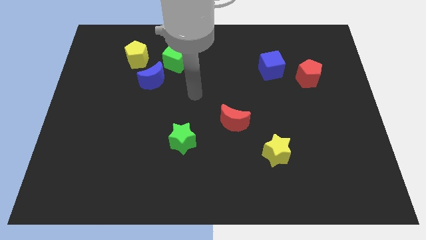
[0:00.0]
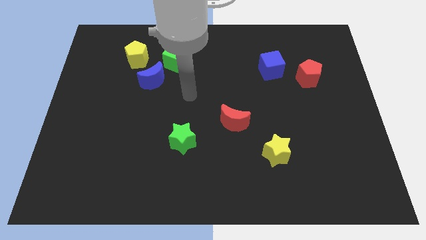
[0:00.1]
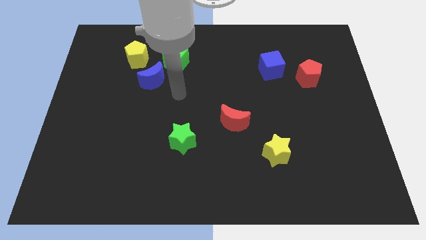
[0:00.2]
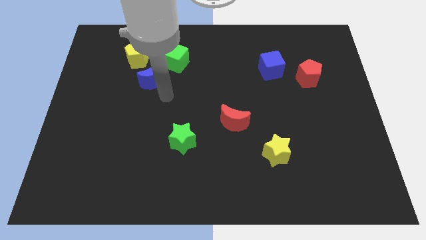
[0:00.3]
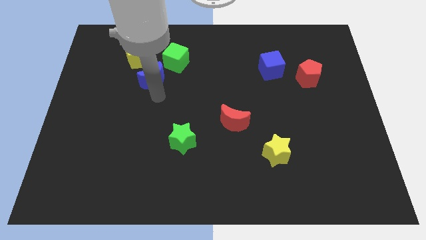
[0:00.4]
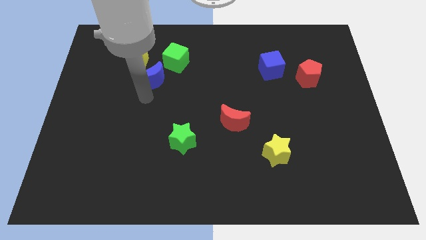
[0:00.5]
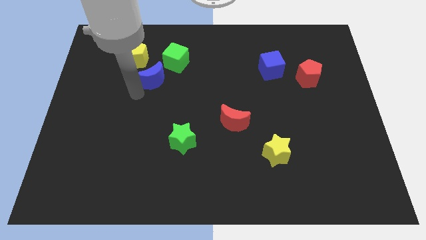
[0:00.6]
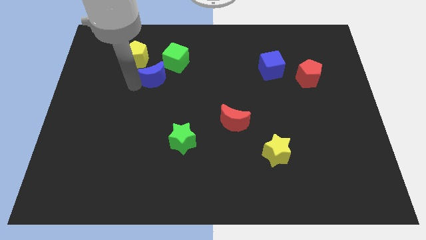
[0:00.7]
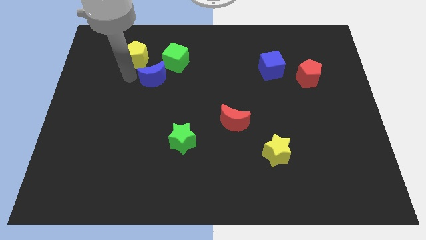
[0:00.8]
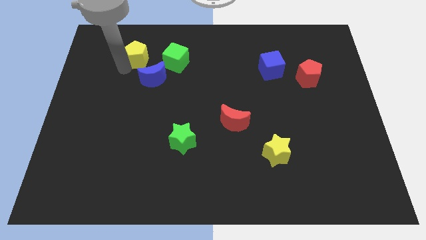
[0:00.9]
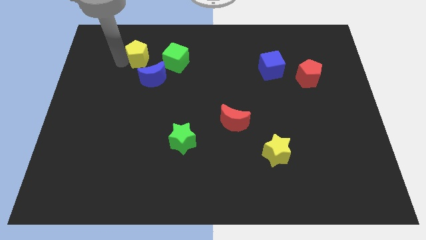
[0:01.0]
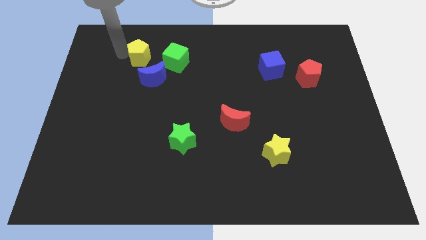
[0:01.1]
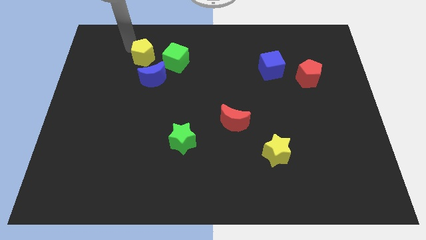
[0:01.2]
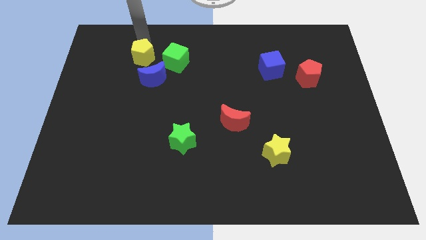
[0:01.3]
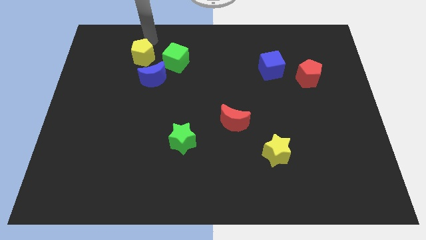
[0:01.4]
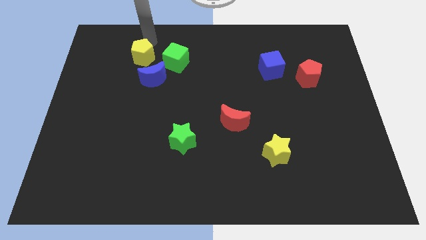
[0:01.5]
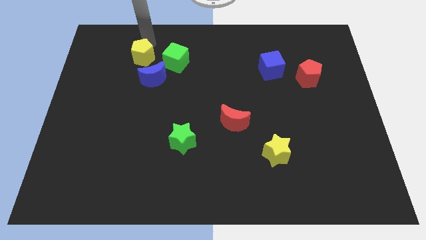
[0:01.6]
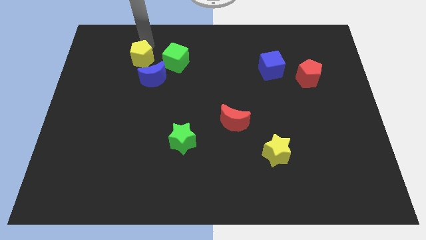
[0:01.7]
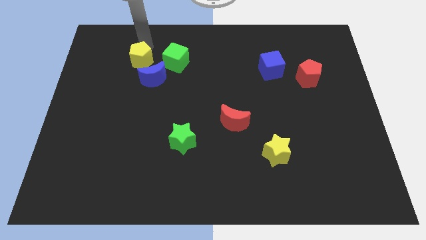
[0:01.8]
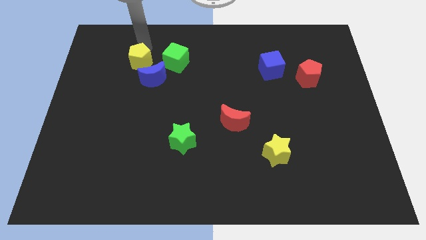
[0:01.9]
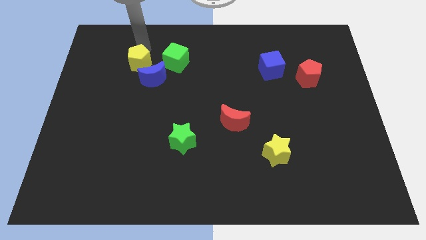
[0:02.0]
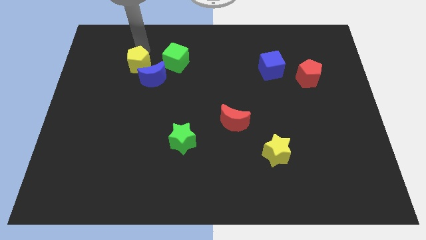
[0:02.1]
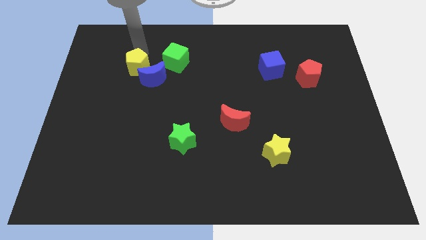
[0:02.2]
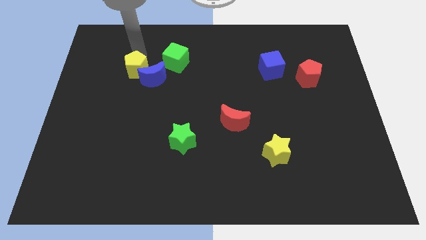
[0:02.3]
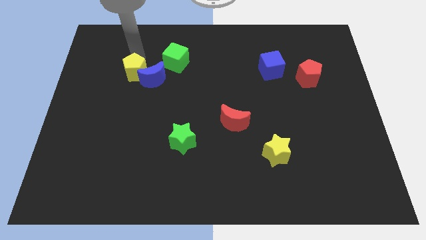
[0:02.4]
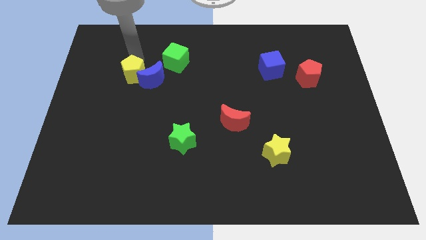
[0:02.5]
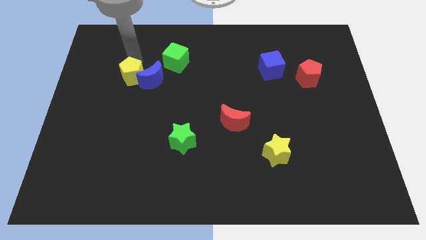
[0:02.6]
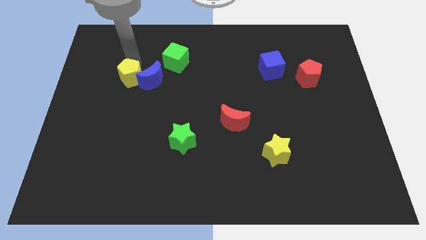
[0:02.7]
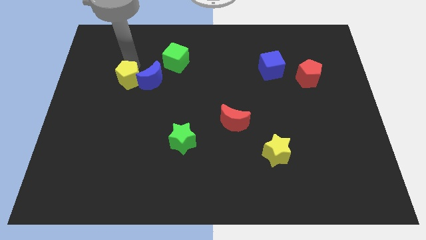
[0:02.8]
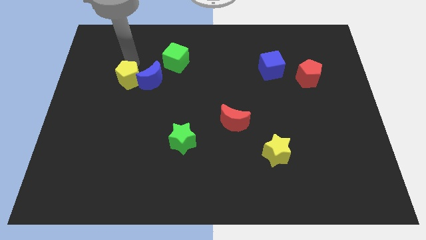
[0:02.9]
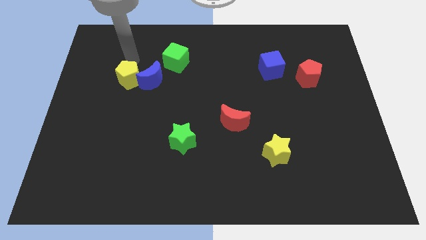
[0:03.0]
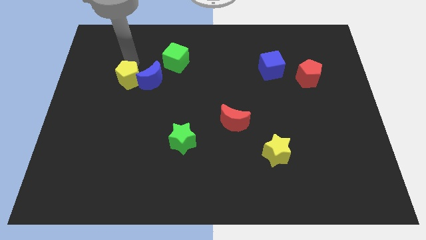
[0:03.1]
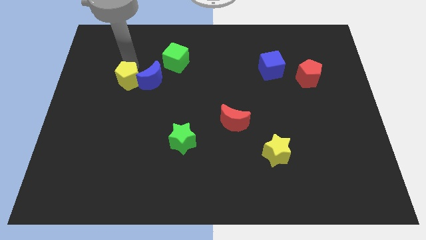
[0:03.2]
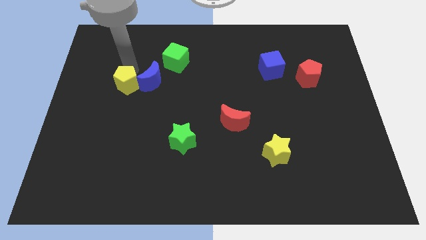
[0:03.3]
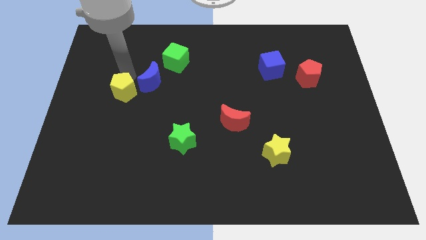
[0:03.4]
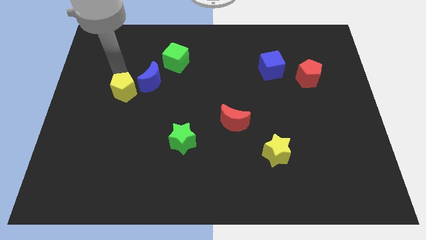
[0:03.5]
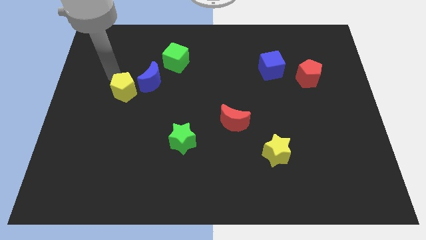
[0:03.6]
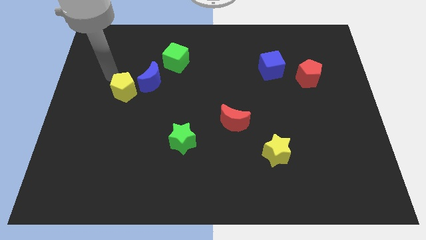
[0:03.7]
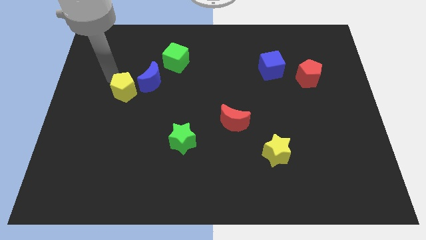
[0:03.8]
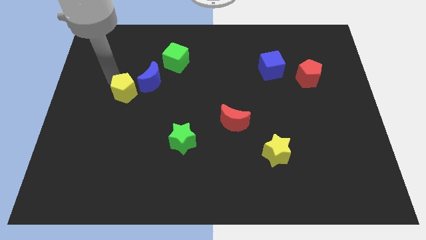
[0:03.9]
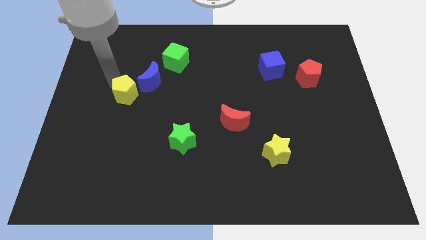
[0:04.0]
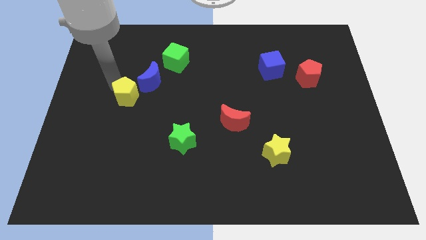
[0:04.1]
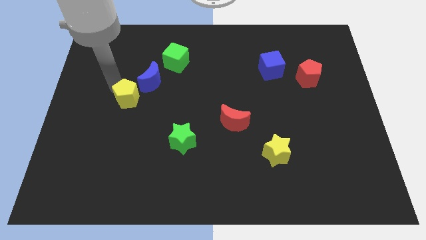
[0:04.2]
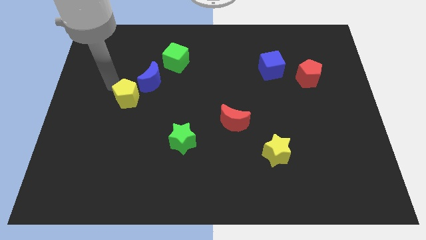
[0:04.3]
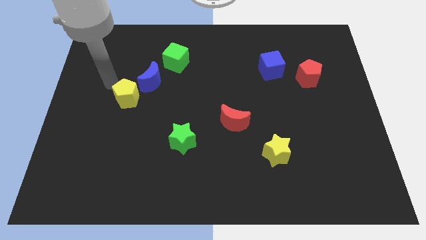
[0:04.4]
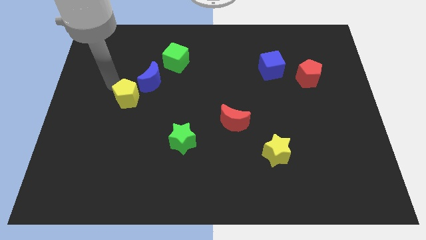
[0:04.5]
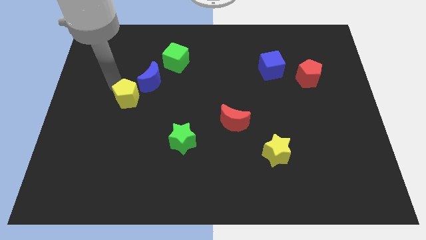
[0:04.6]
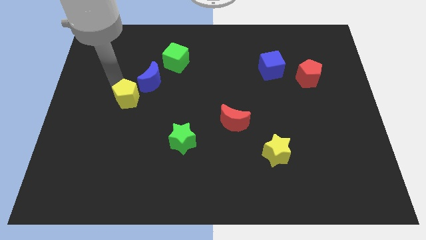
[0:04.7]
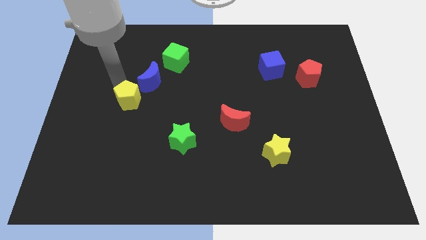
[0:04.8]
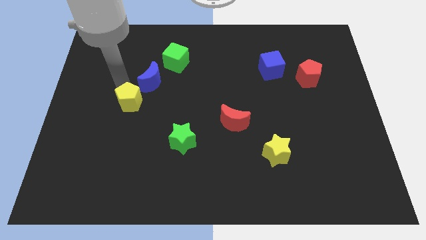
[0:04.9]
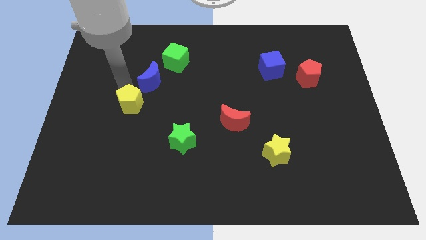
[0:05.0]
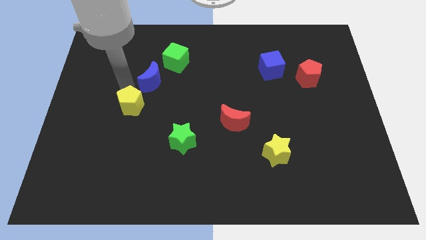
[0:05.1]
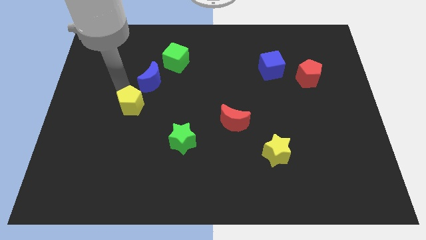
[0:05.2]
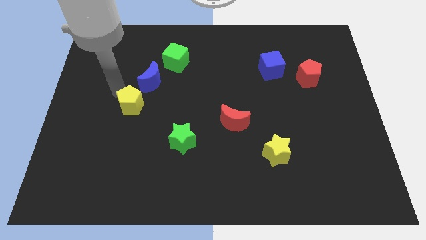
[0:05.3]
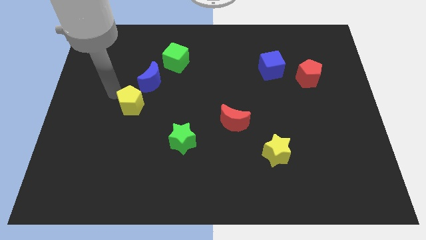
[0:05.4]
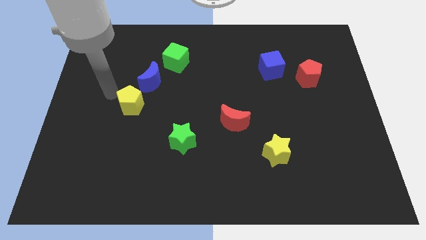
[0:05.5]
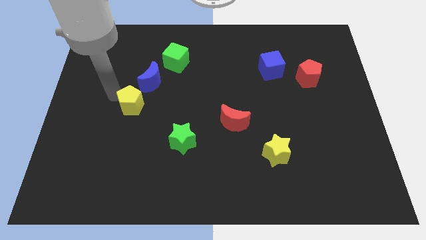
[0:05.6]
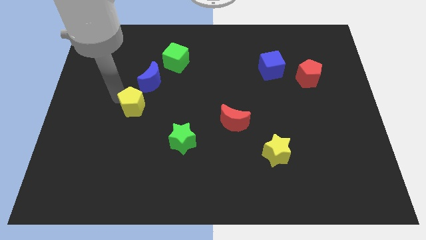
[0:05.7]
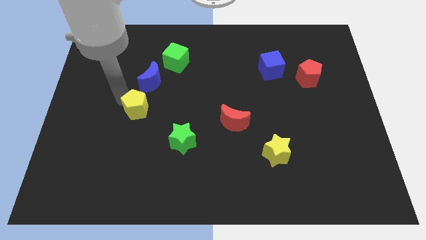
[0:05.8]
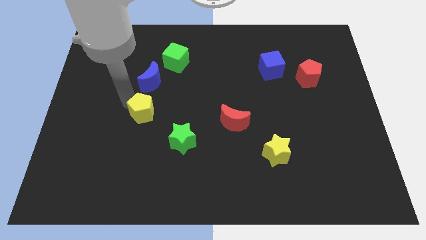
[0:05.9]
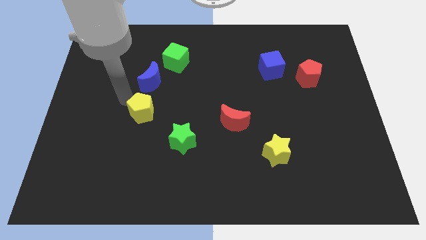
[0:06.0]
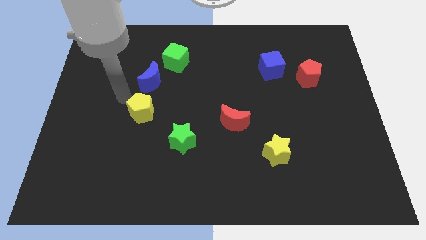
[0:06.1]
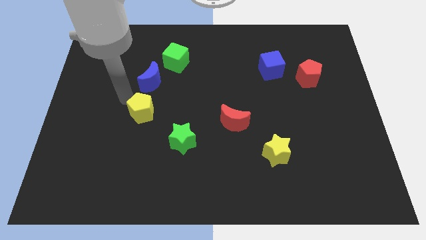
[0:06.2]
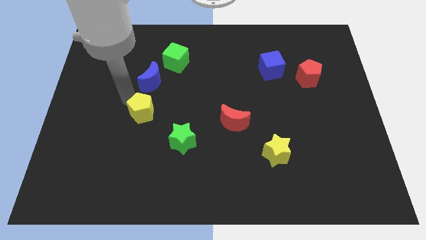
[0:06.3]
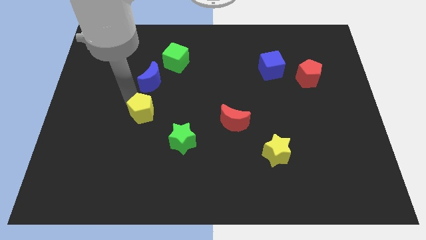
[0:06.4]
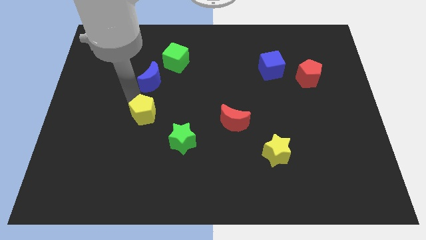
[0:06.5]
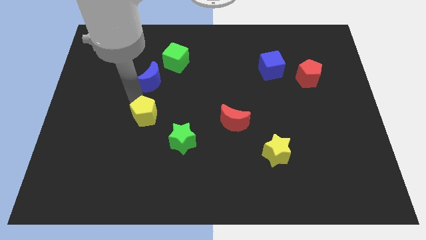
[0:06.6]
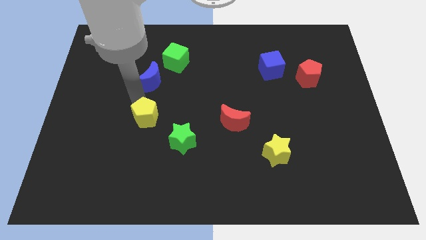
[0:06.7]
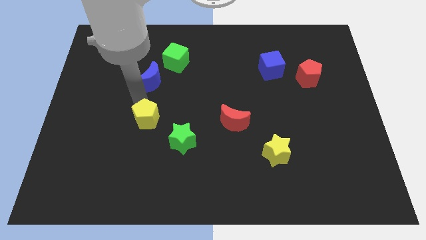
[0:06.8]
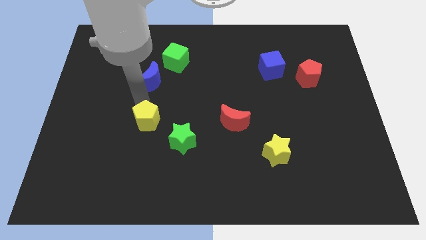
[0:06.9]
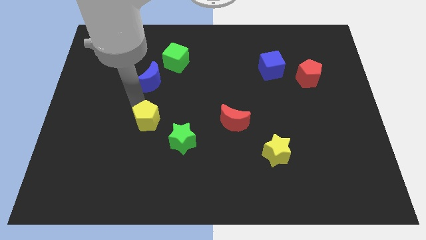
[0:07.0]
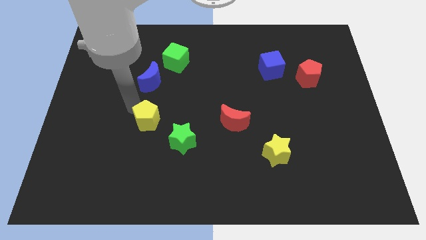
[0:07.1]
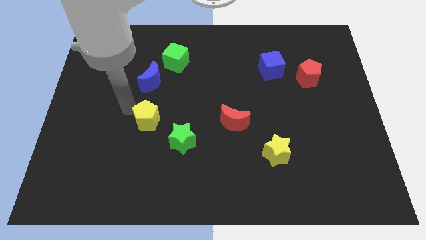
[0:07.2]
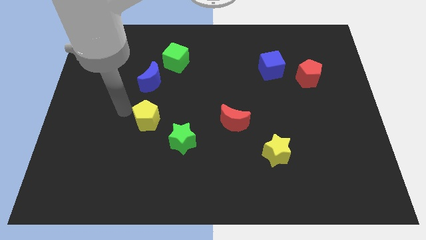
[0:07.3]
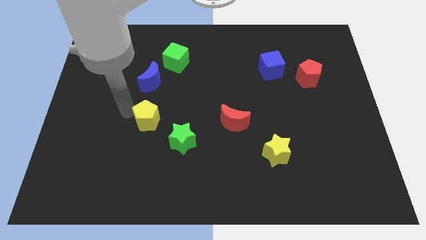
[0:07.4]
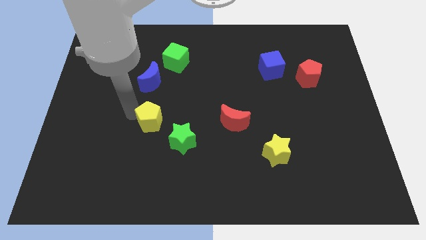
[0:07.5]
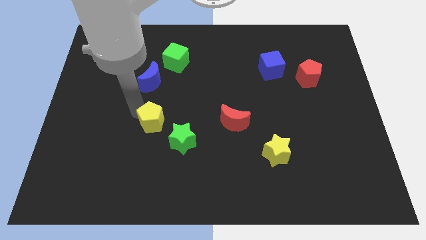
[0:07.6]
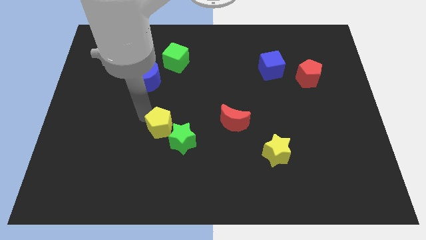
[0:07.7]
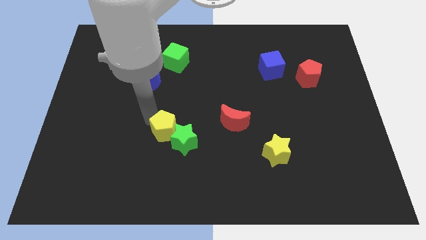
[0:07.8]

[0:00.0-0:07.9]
push the yellow pentagon close to the green star

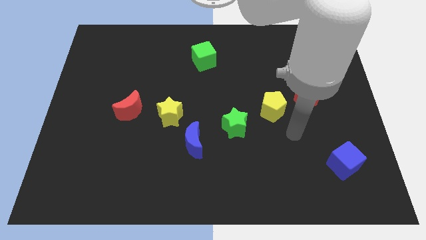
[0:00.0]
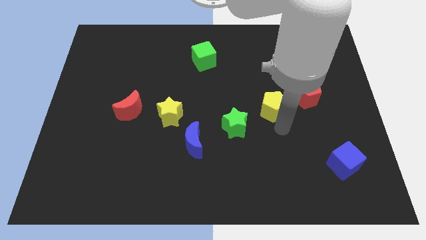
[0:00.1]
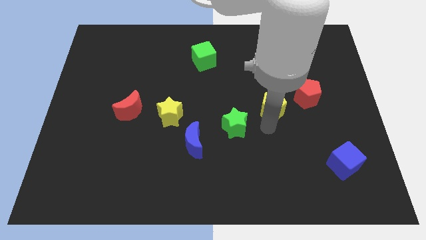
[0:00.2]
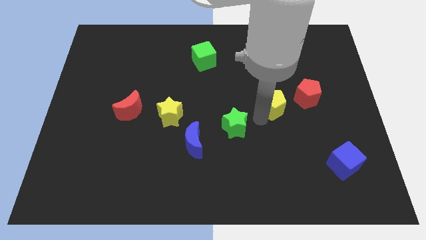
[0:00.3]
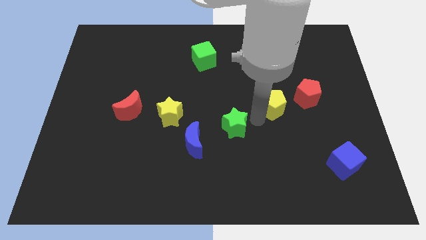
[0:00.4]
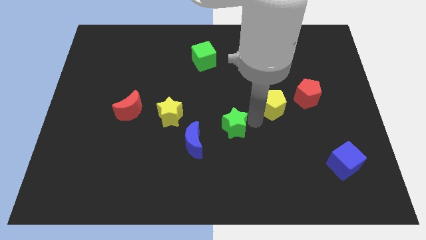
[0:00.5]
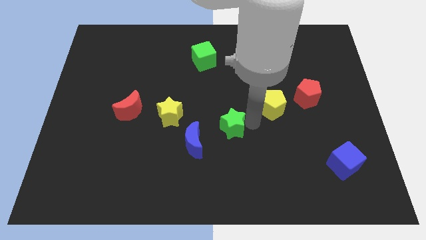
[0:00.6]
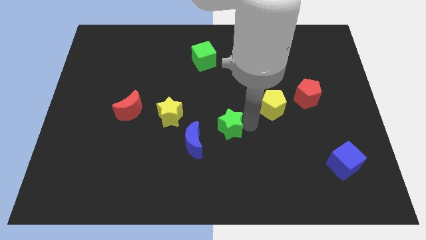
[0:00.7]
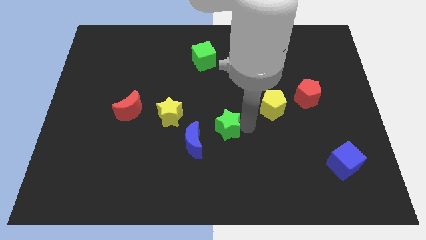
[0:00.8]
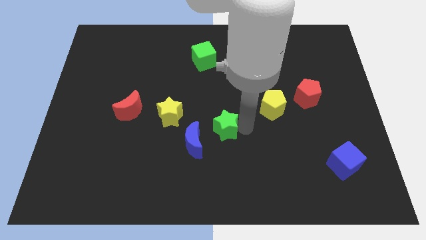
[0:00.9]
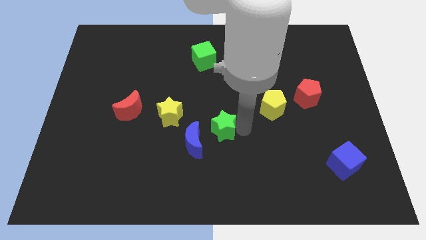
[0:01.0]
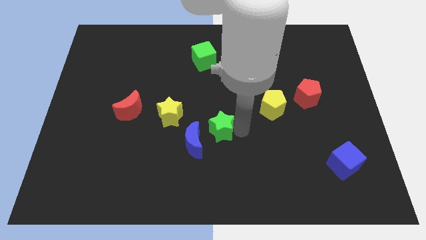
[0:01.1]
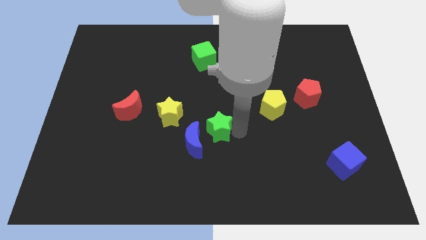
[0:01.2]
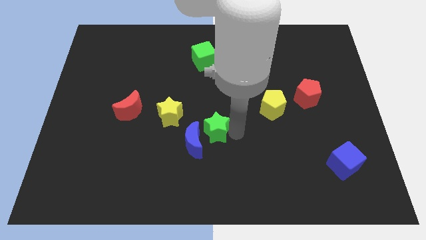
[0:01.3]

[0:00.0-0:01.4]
push the green star to the blue moon
